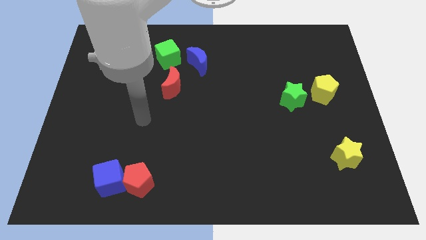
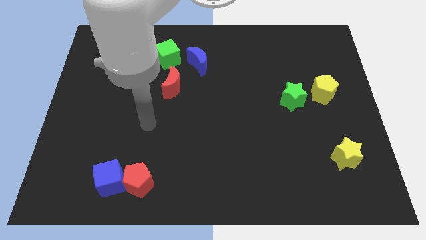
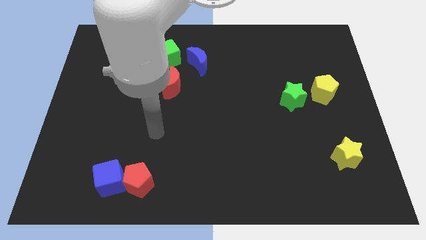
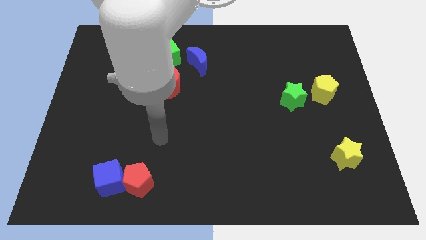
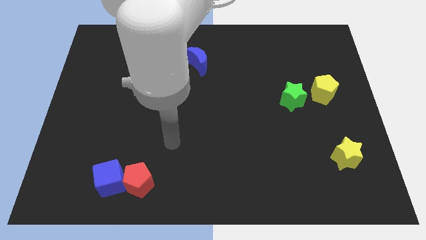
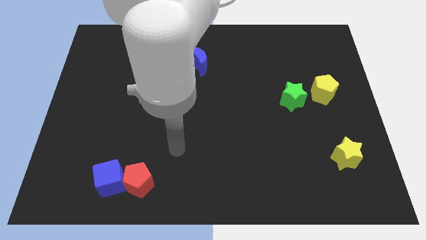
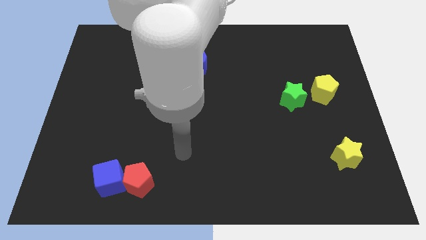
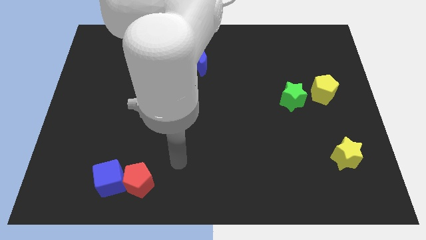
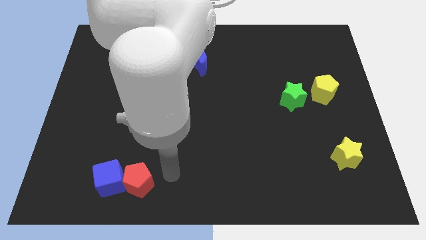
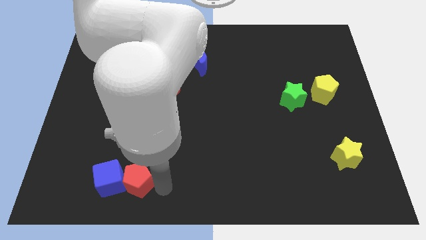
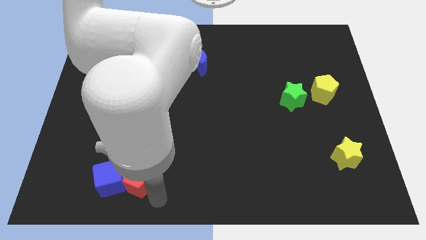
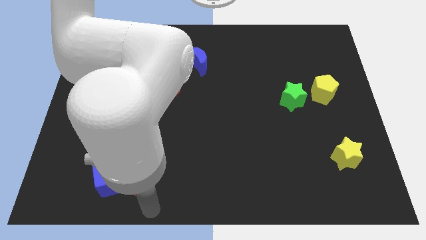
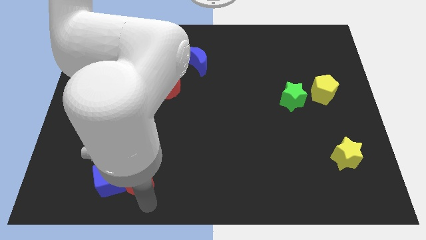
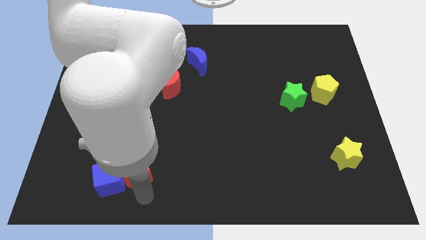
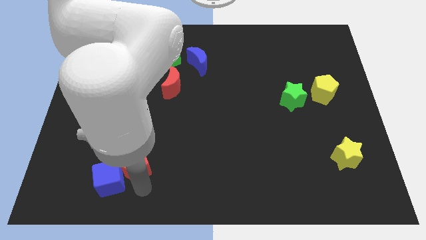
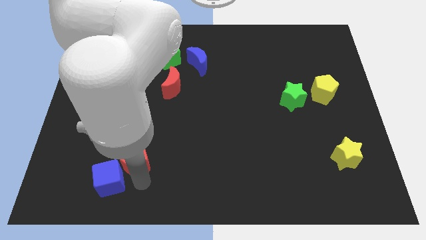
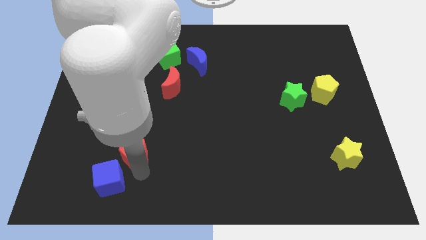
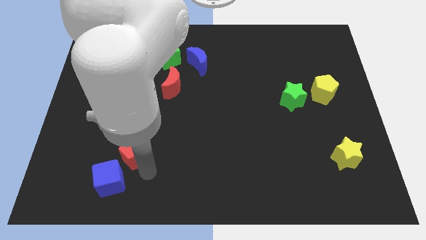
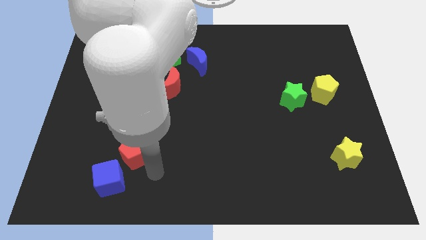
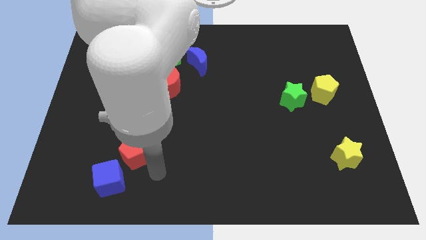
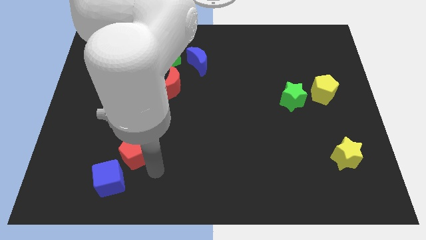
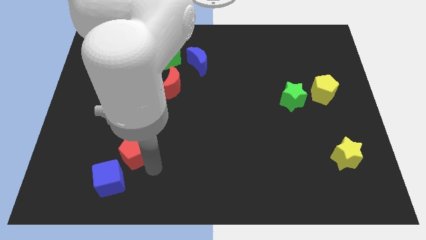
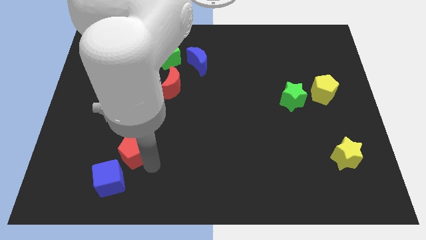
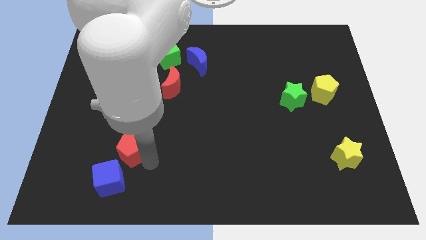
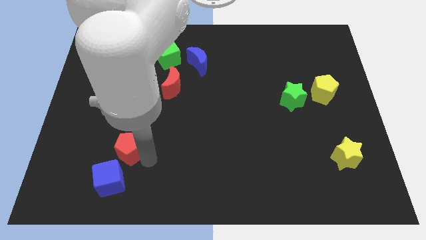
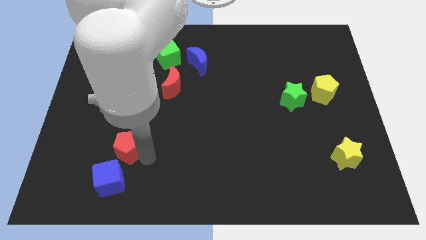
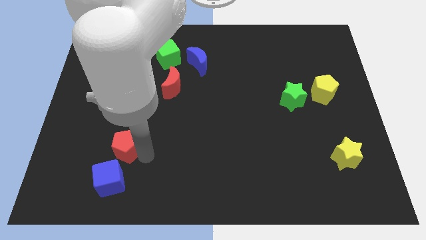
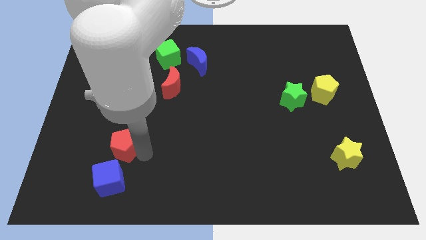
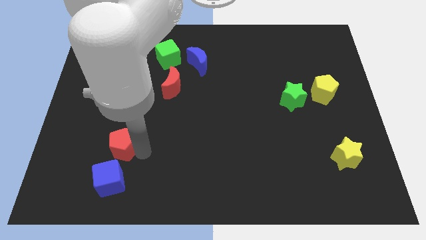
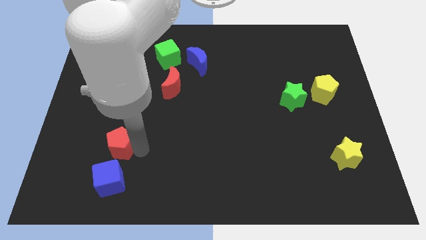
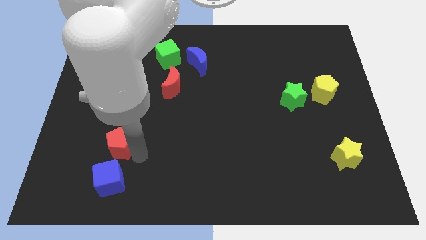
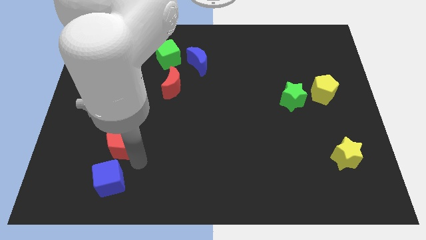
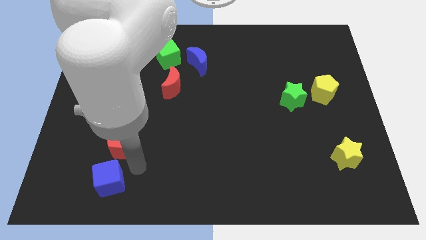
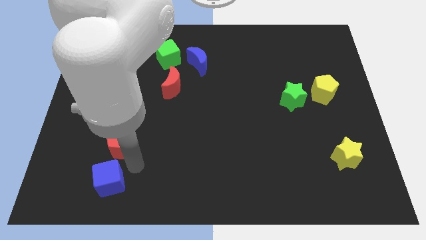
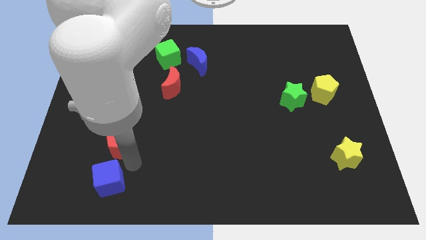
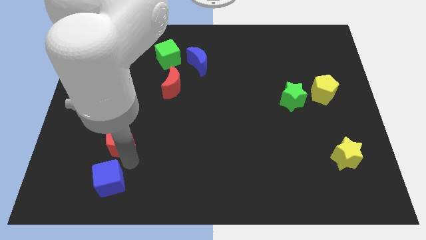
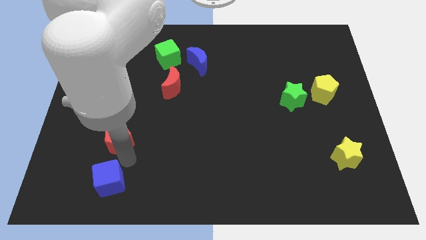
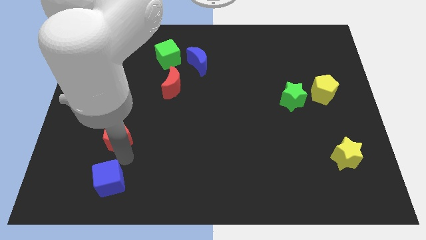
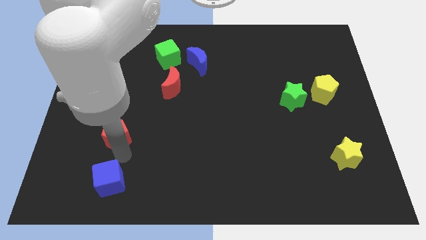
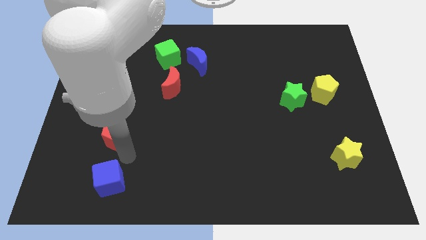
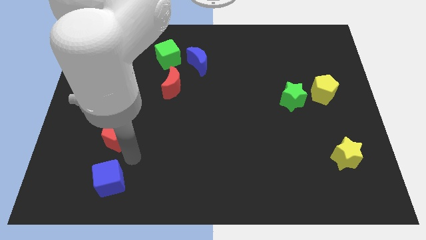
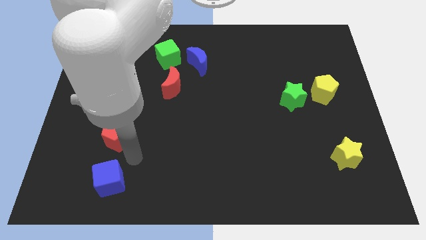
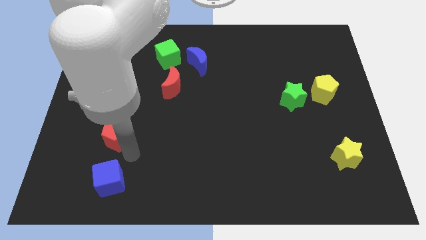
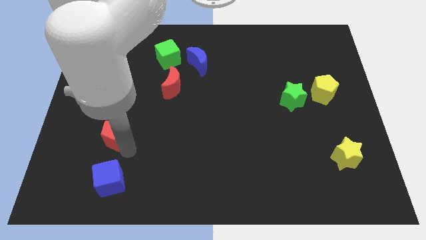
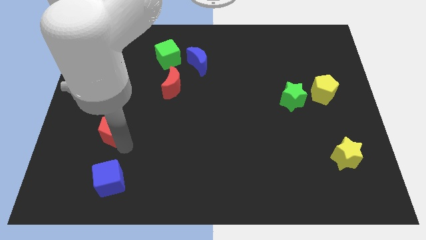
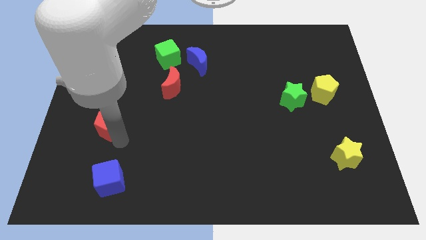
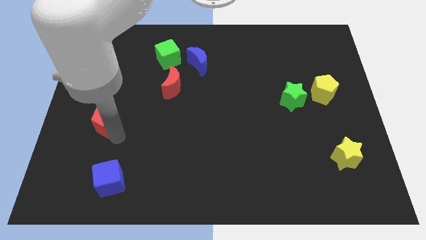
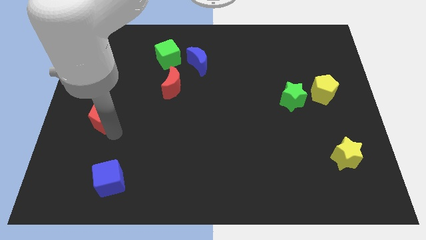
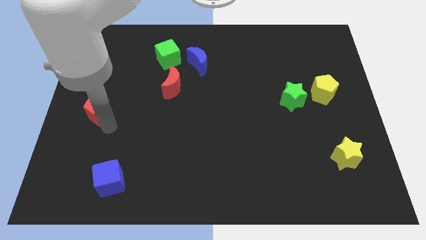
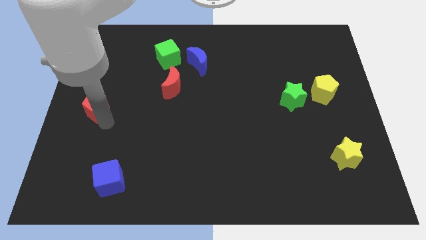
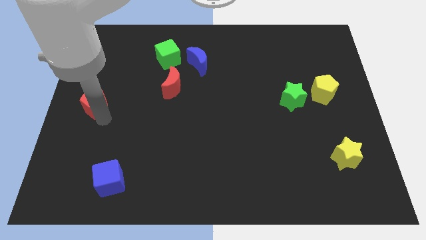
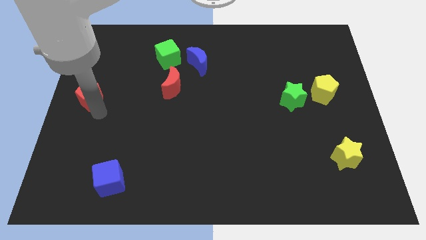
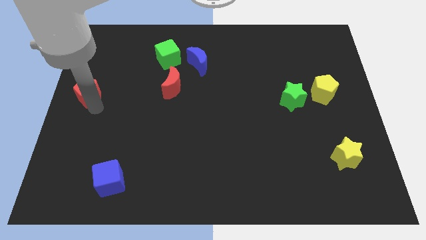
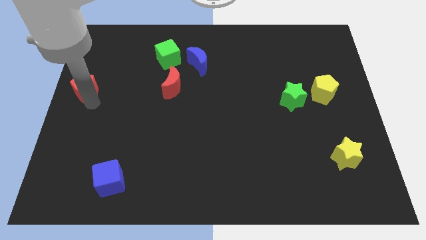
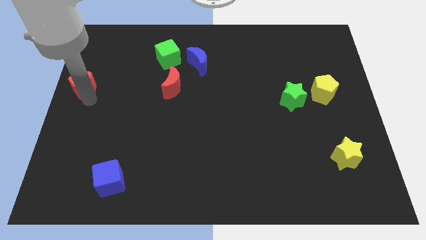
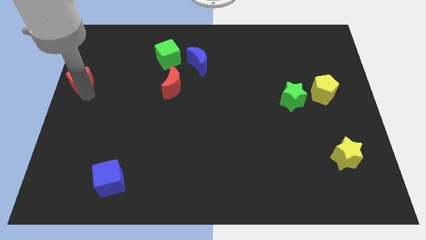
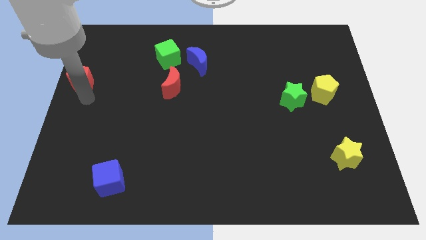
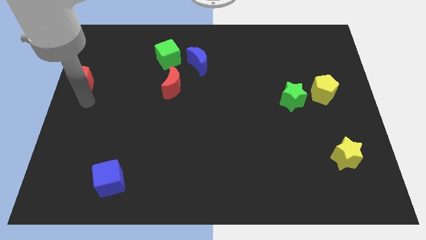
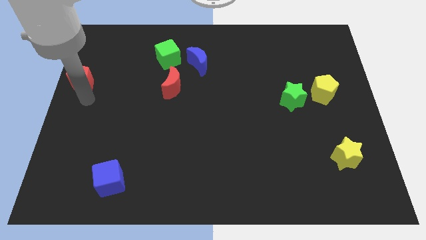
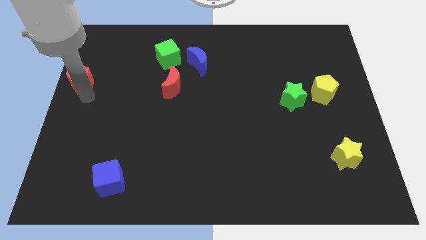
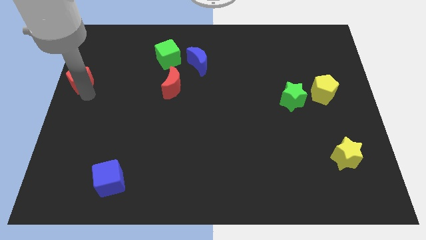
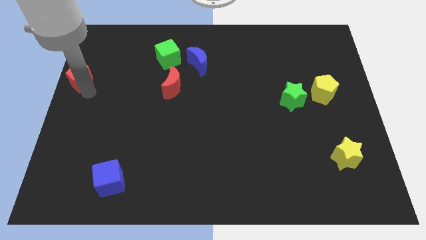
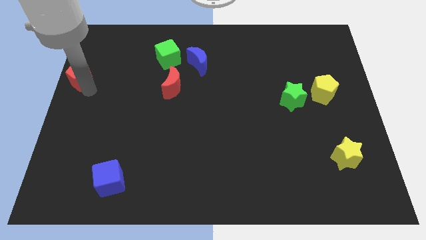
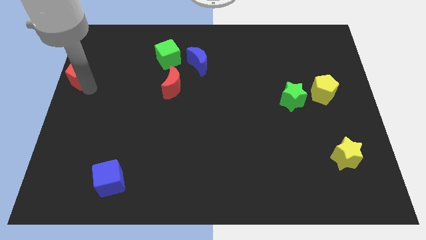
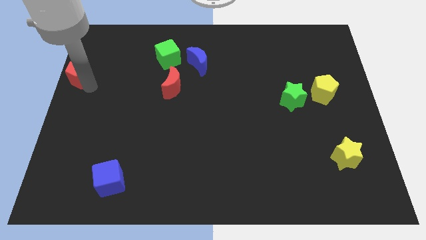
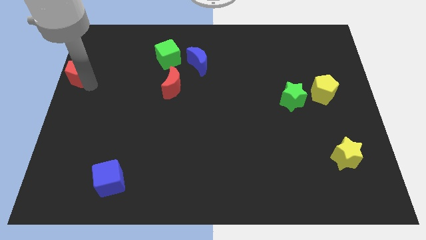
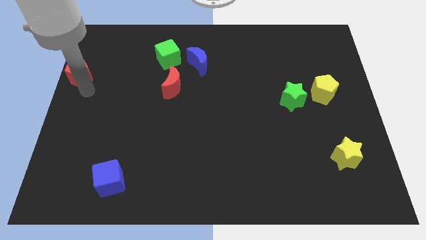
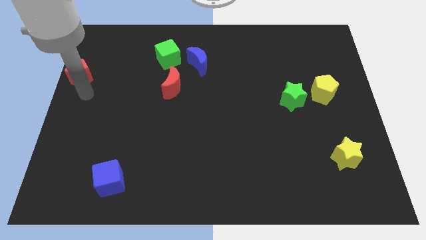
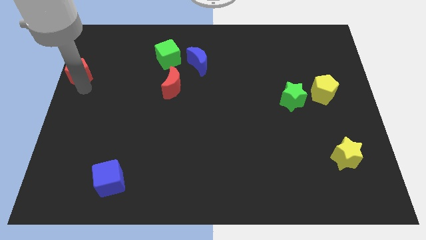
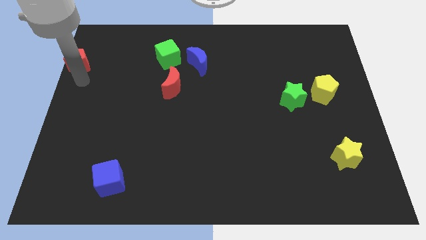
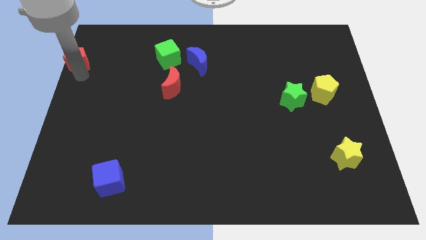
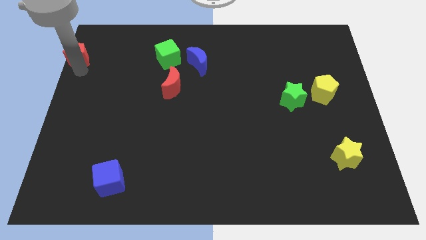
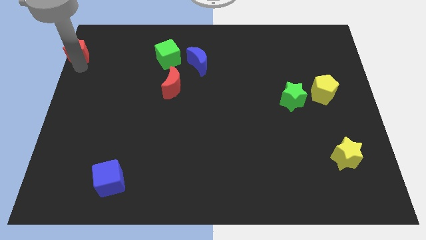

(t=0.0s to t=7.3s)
put the red pentagon to the upper left corner

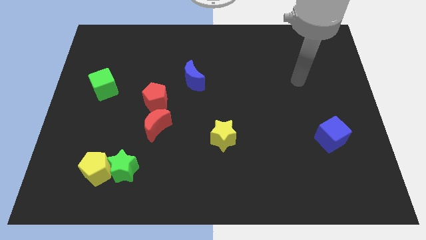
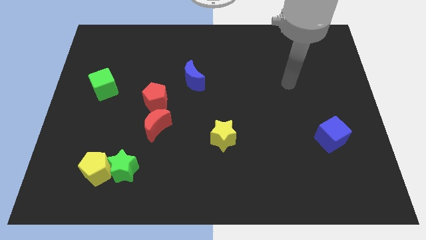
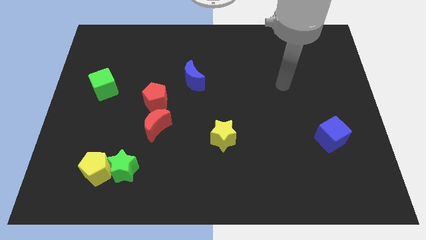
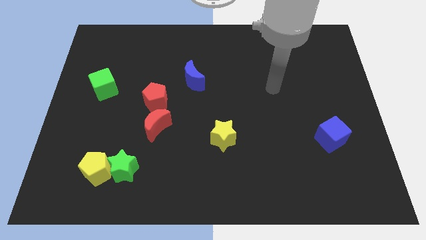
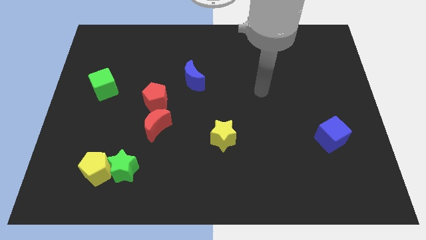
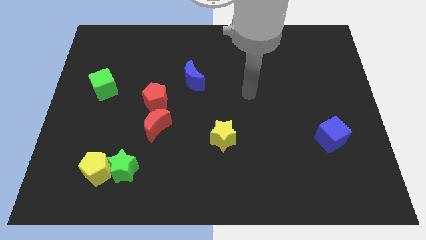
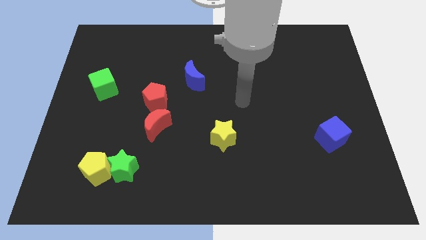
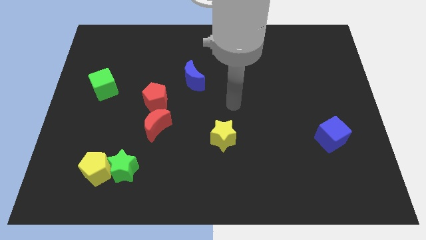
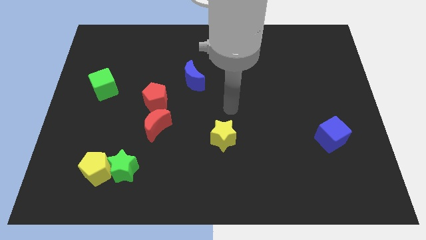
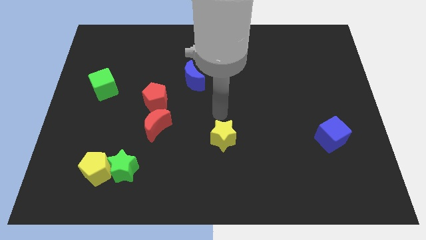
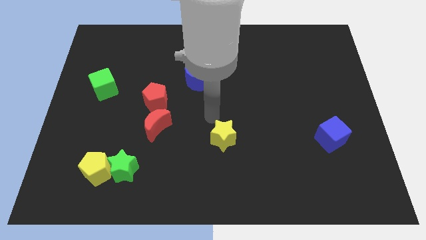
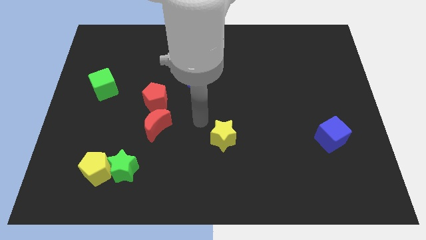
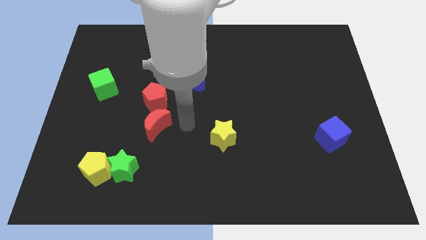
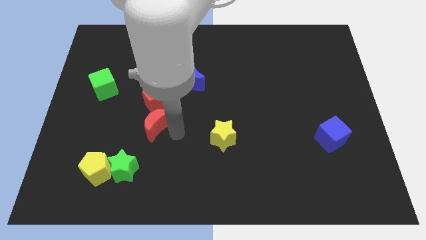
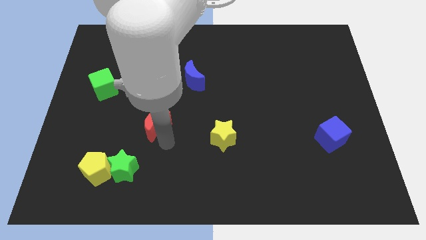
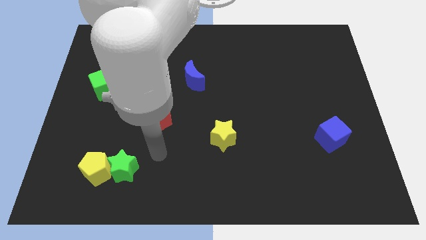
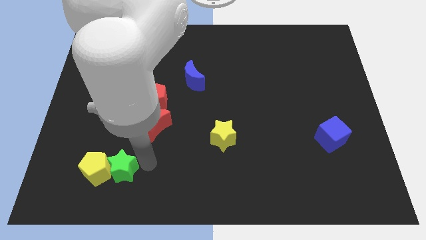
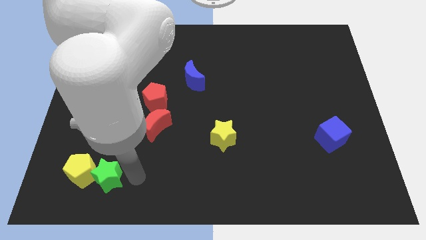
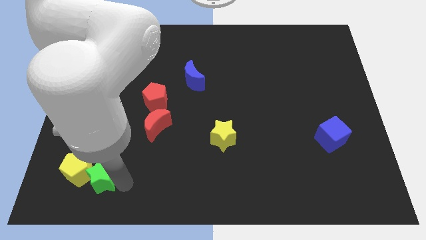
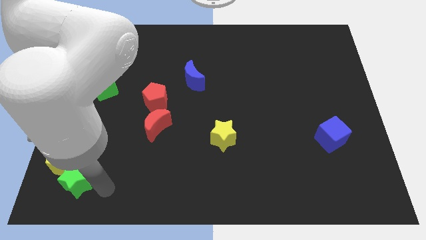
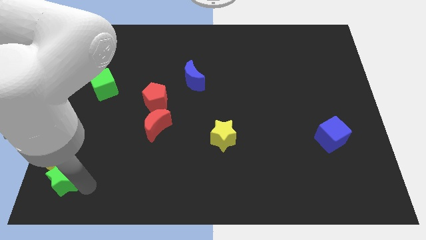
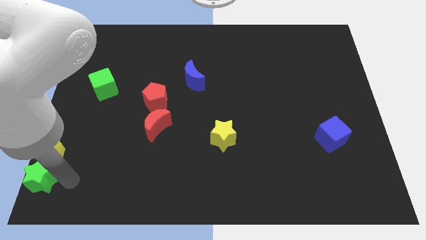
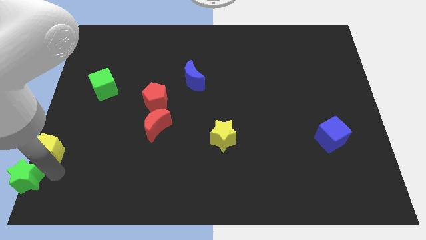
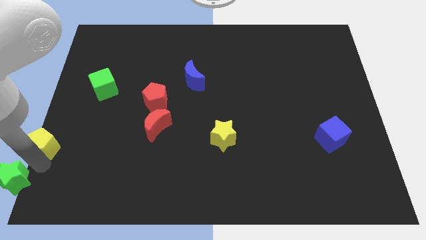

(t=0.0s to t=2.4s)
move the yellow pentagon to the center left
